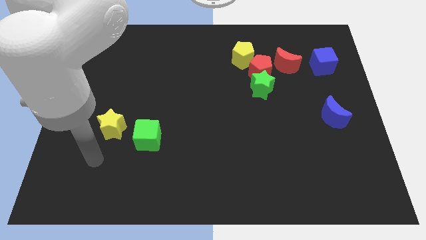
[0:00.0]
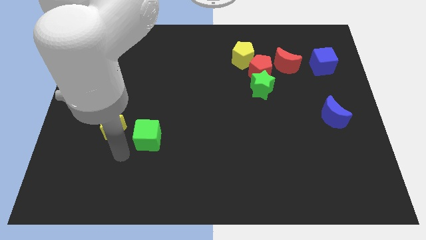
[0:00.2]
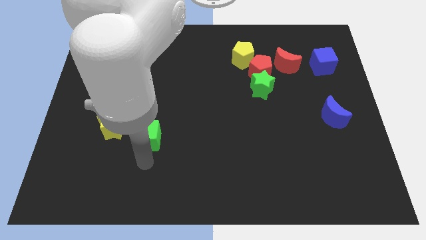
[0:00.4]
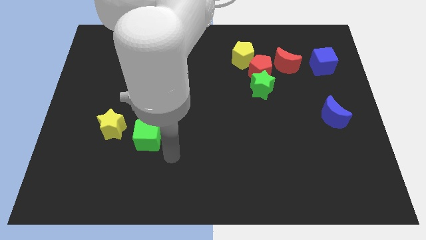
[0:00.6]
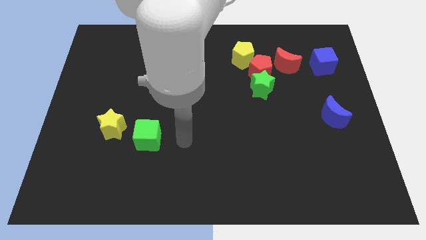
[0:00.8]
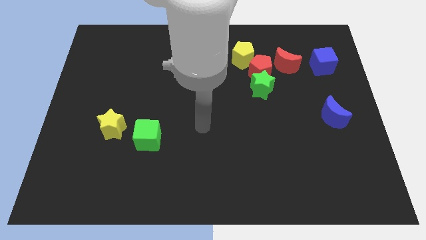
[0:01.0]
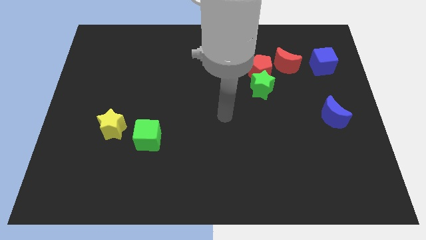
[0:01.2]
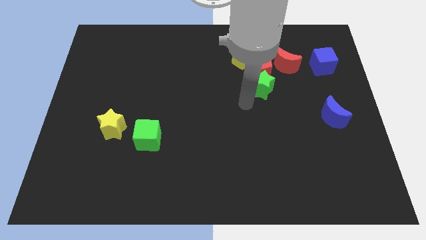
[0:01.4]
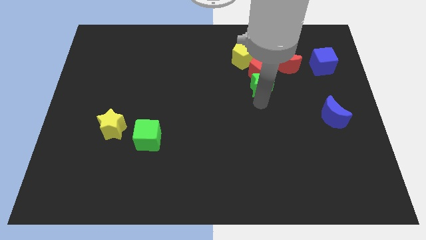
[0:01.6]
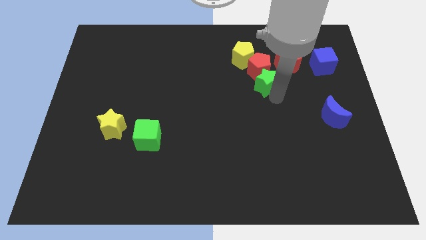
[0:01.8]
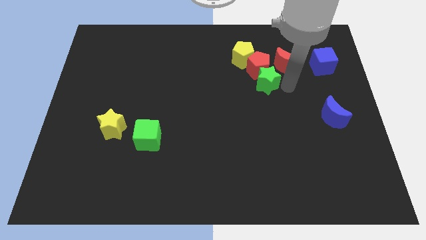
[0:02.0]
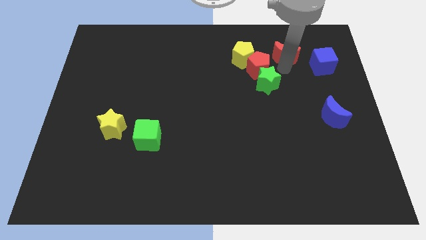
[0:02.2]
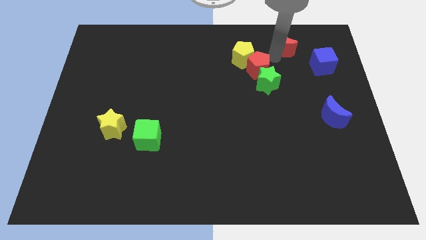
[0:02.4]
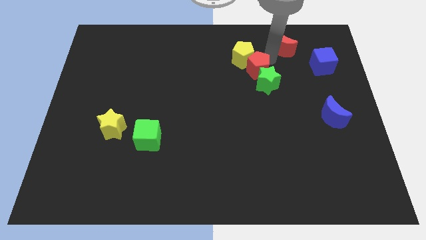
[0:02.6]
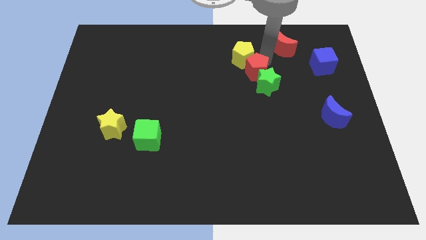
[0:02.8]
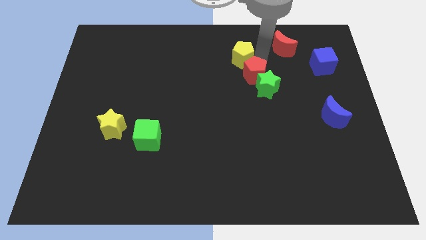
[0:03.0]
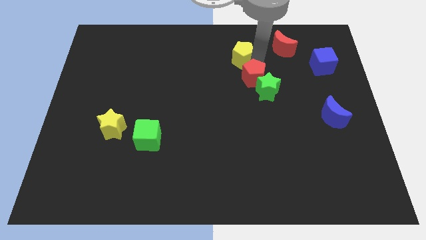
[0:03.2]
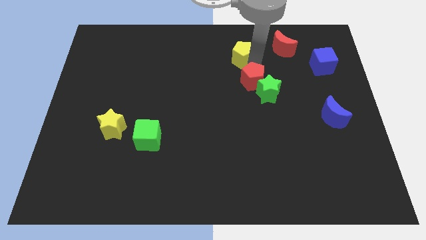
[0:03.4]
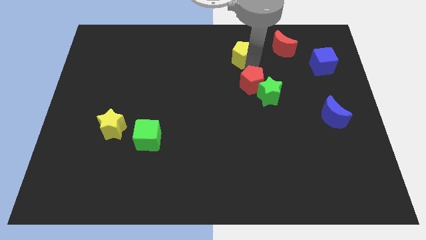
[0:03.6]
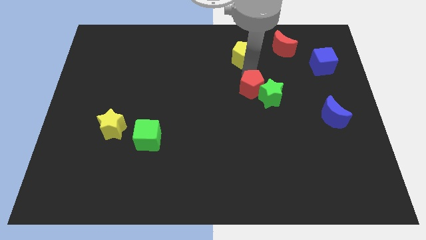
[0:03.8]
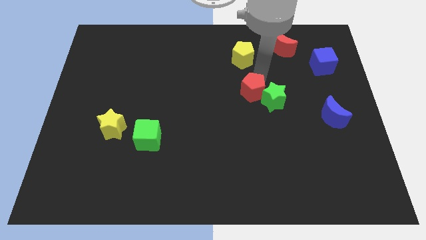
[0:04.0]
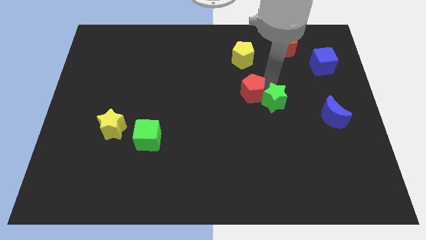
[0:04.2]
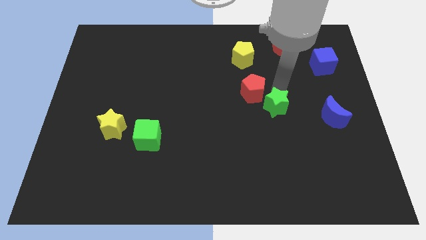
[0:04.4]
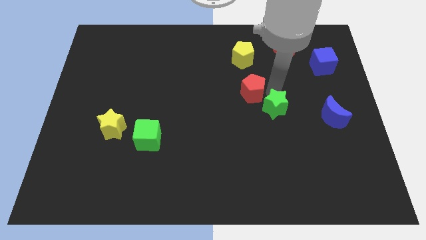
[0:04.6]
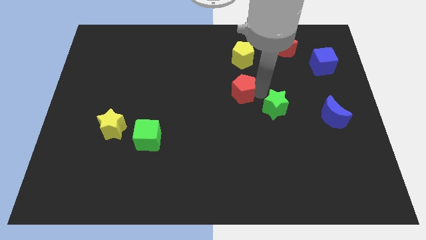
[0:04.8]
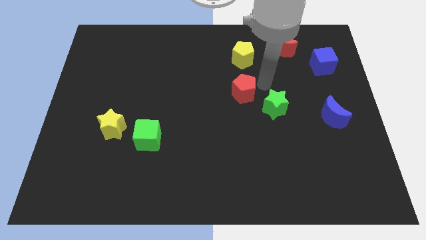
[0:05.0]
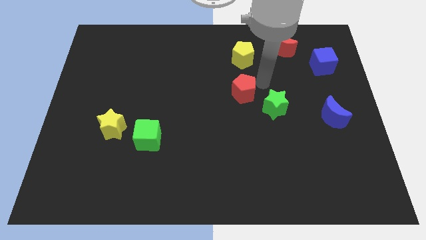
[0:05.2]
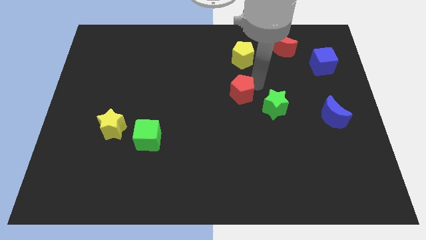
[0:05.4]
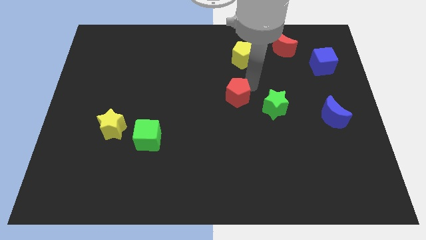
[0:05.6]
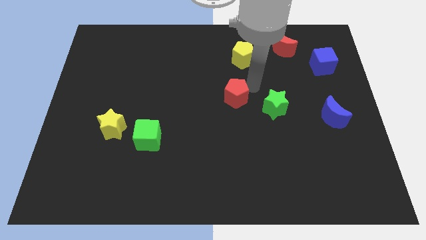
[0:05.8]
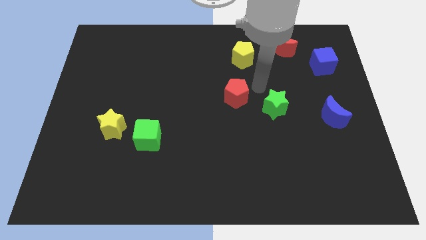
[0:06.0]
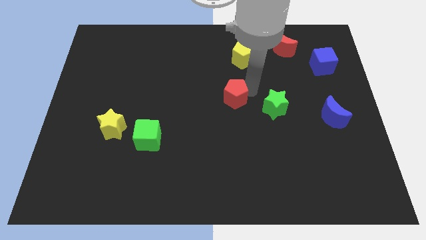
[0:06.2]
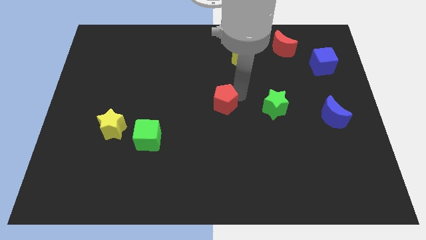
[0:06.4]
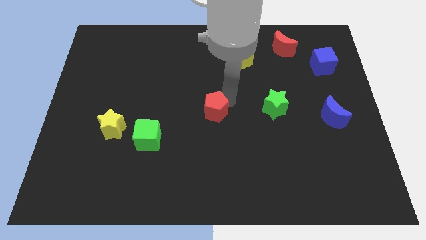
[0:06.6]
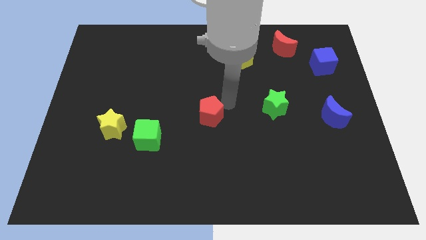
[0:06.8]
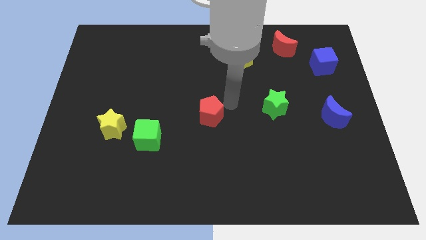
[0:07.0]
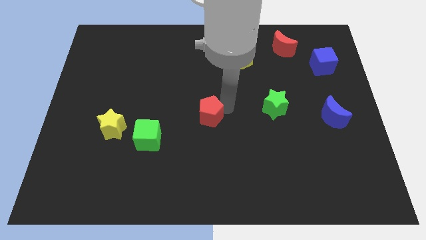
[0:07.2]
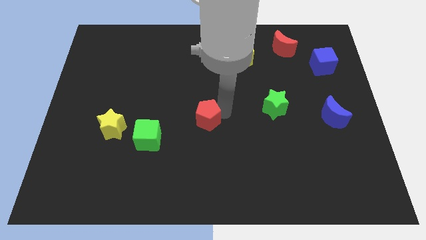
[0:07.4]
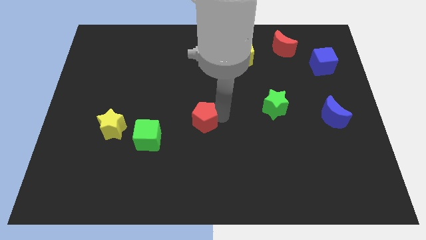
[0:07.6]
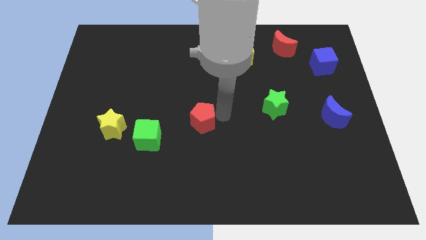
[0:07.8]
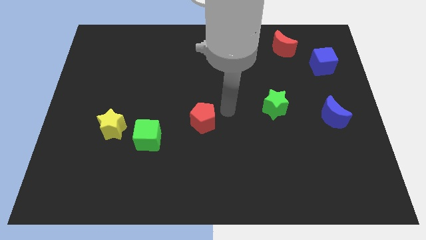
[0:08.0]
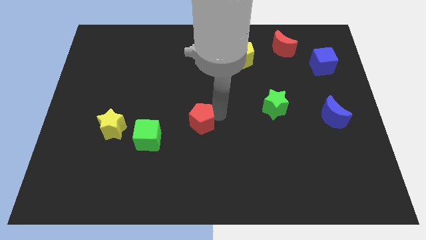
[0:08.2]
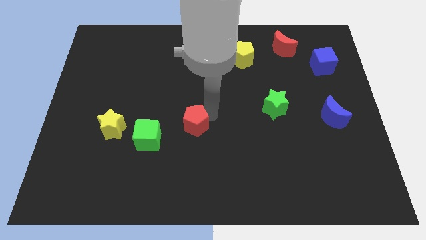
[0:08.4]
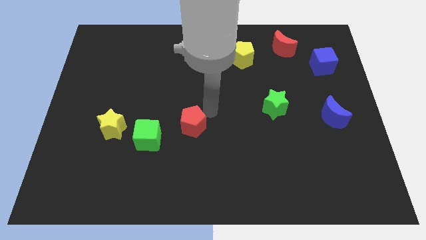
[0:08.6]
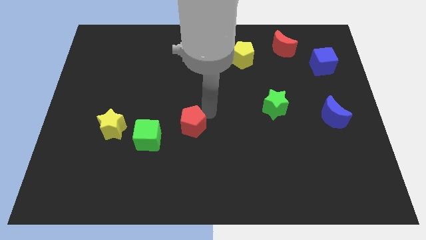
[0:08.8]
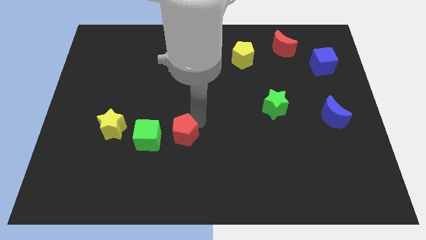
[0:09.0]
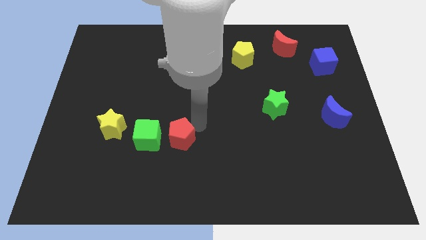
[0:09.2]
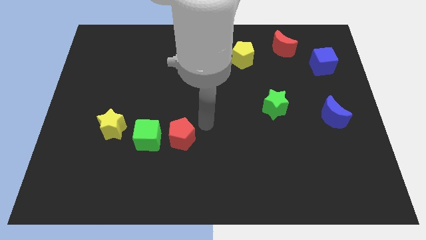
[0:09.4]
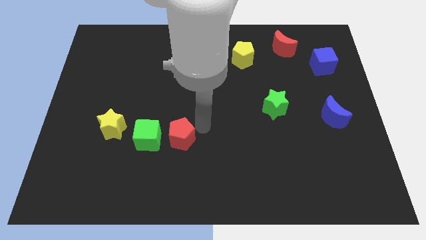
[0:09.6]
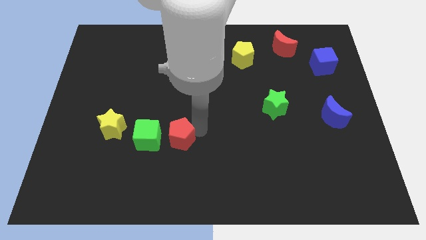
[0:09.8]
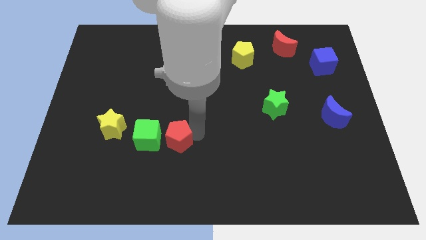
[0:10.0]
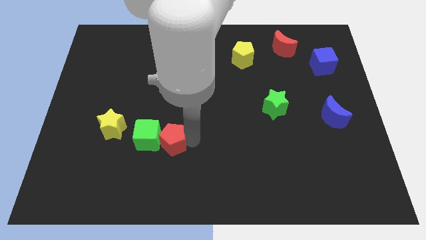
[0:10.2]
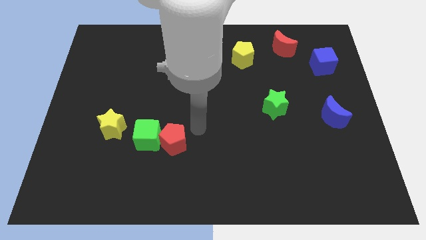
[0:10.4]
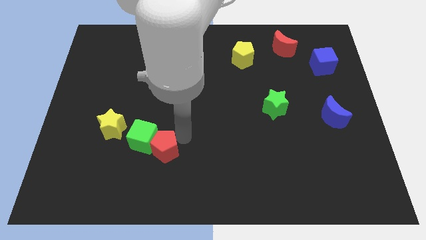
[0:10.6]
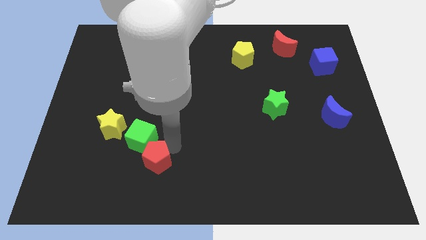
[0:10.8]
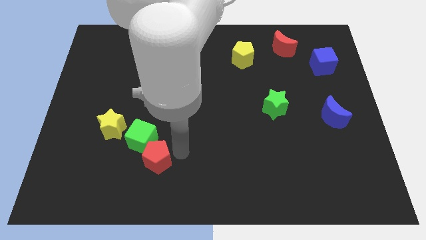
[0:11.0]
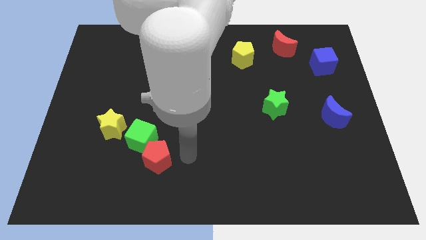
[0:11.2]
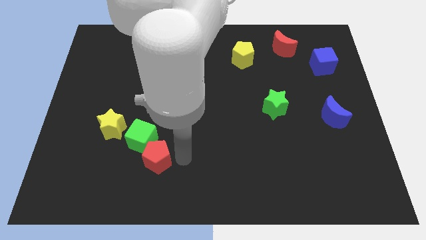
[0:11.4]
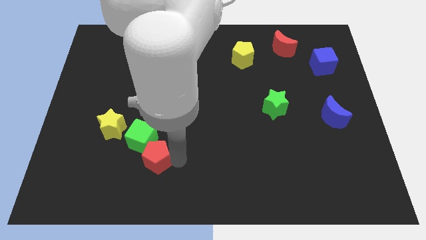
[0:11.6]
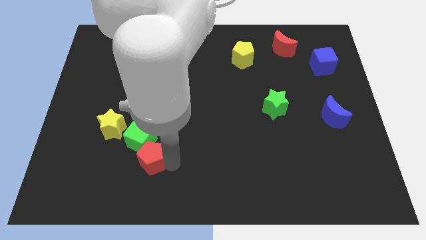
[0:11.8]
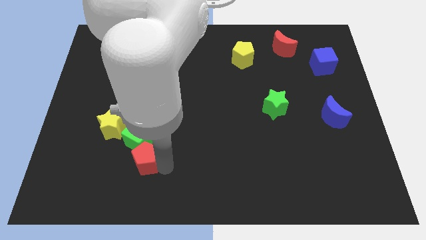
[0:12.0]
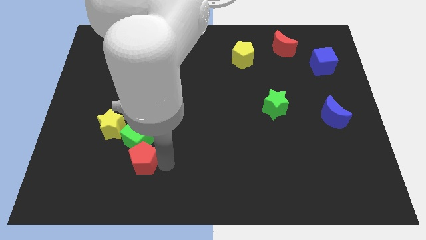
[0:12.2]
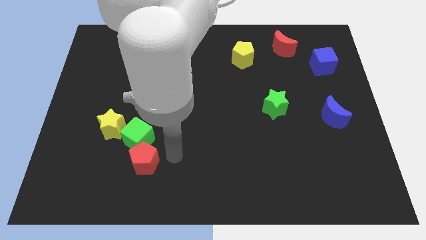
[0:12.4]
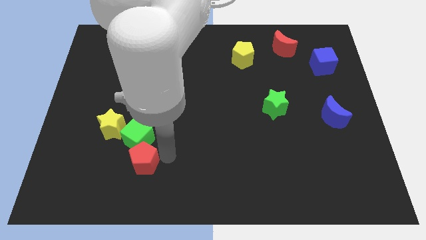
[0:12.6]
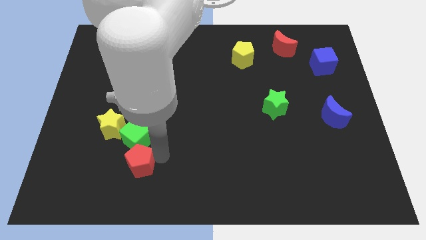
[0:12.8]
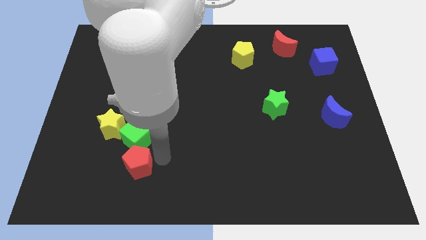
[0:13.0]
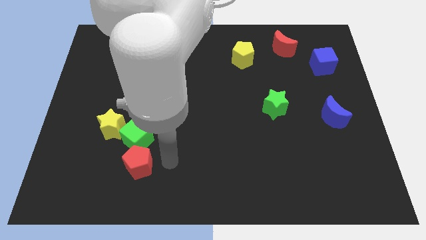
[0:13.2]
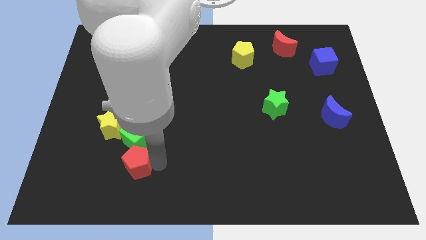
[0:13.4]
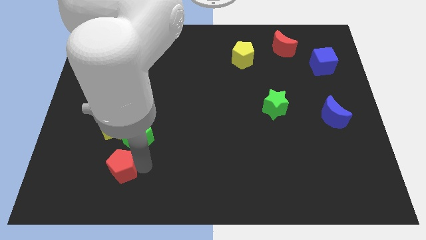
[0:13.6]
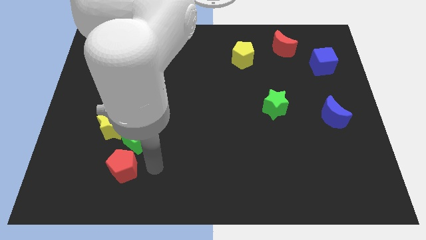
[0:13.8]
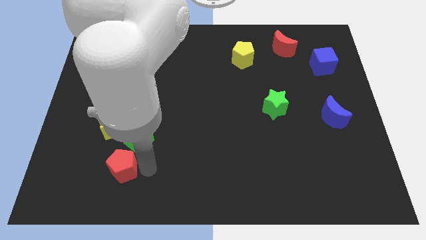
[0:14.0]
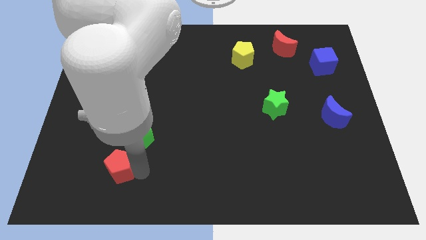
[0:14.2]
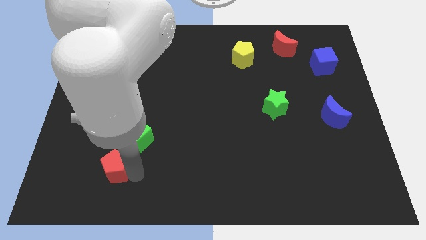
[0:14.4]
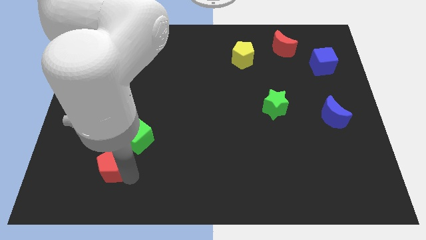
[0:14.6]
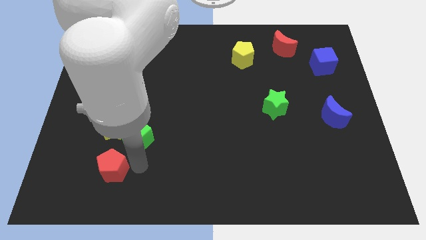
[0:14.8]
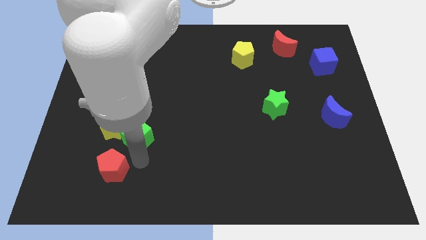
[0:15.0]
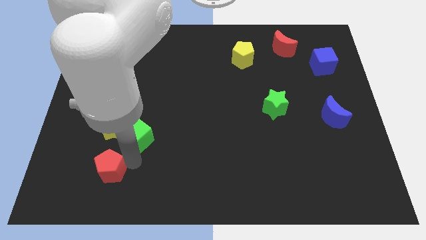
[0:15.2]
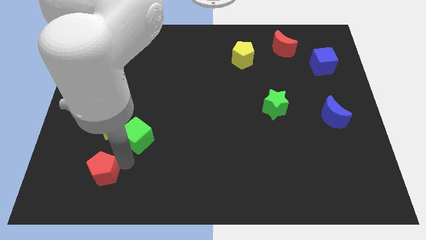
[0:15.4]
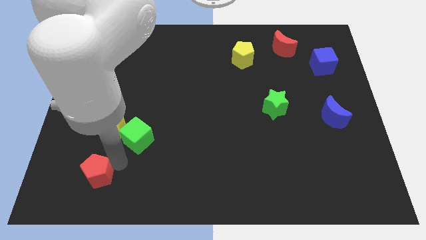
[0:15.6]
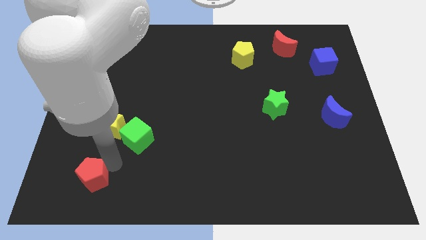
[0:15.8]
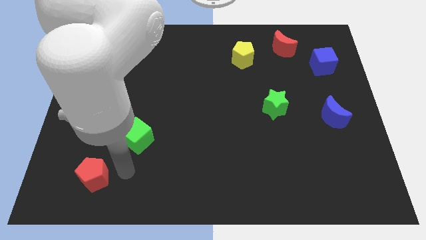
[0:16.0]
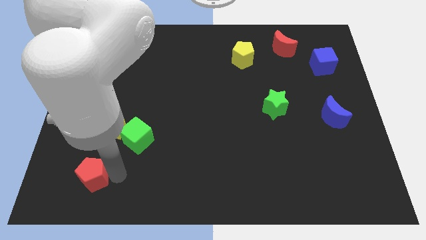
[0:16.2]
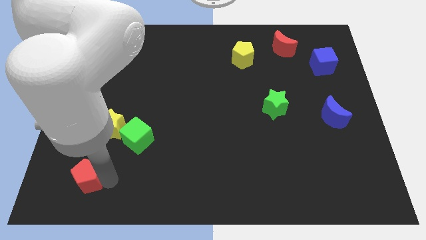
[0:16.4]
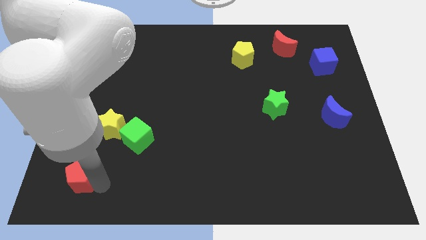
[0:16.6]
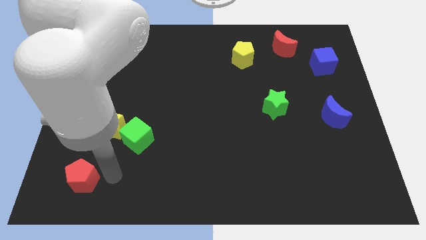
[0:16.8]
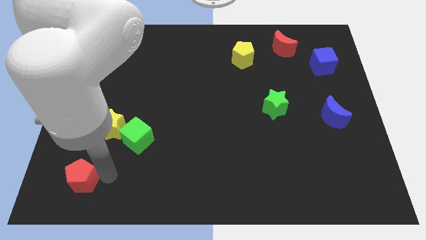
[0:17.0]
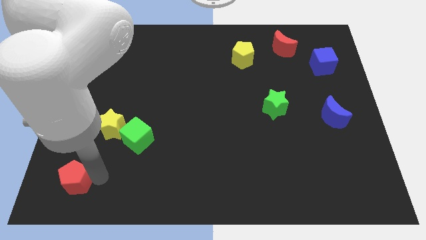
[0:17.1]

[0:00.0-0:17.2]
move the red pentagon to the bottom left of the board
